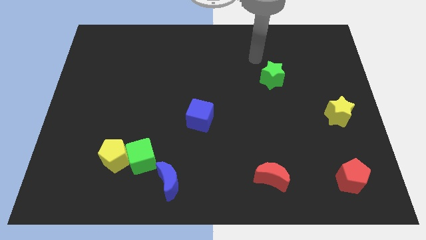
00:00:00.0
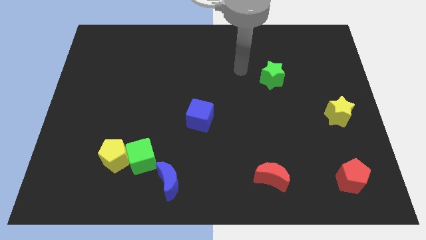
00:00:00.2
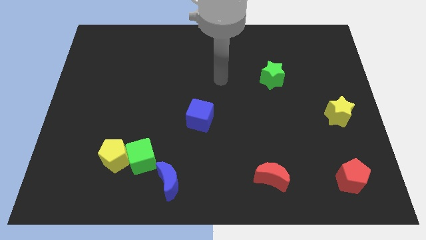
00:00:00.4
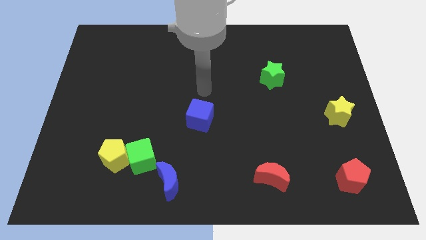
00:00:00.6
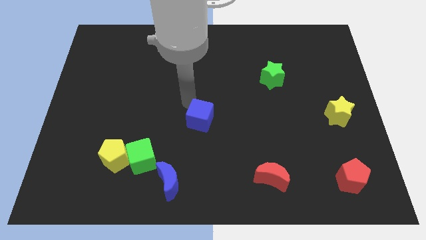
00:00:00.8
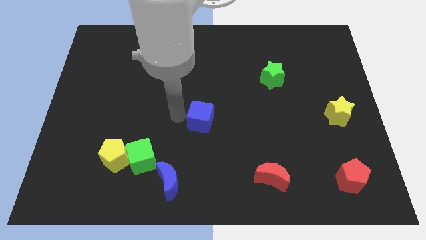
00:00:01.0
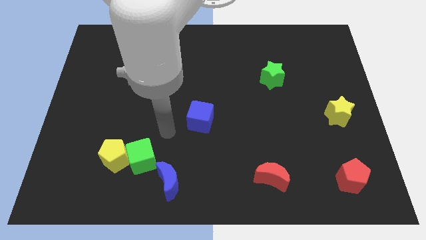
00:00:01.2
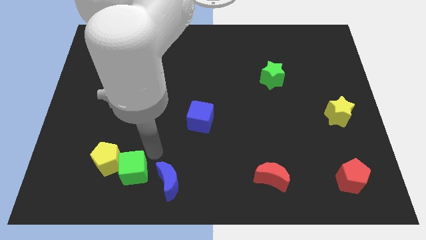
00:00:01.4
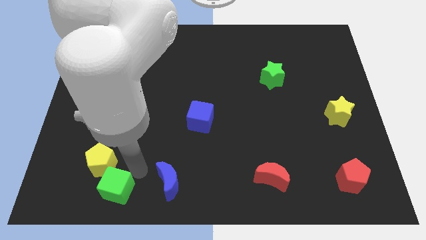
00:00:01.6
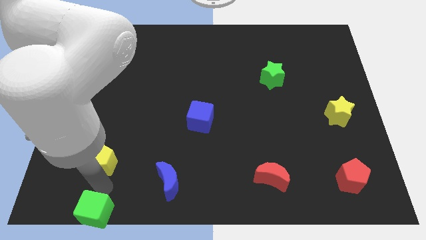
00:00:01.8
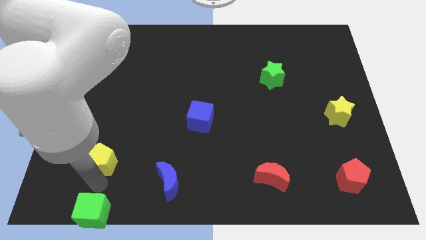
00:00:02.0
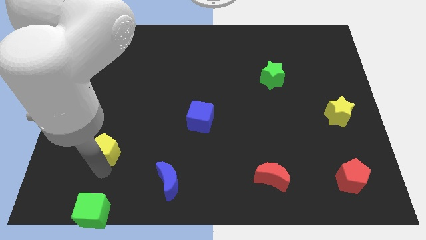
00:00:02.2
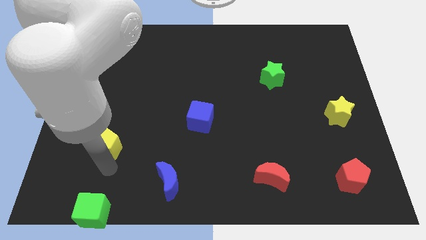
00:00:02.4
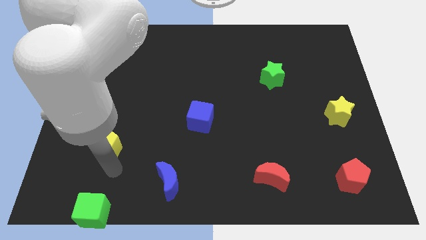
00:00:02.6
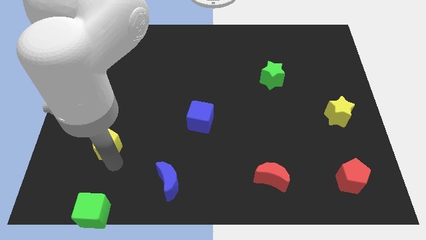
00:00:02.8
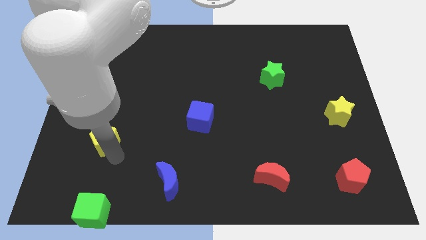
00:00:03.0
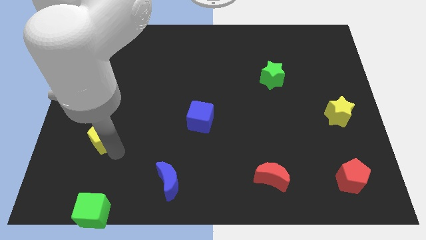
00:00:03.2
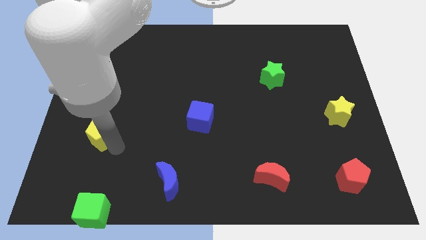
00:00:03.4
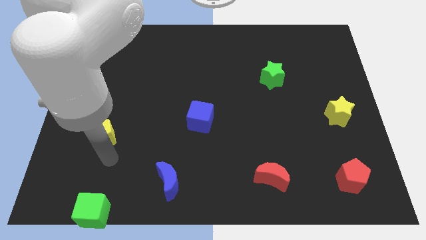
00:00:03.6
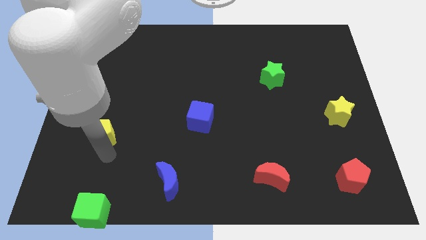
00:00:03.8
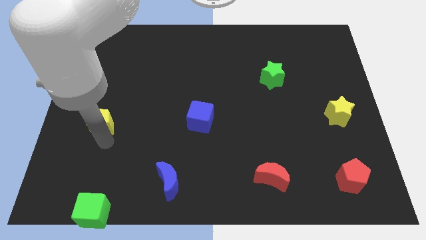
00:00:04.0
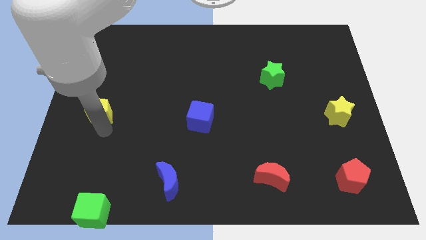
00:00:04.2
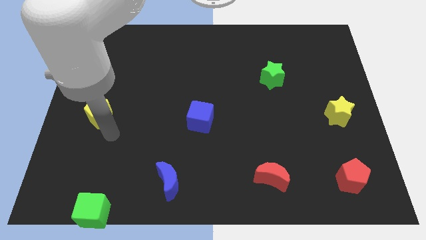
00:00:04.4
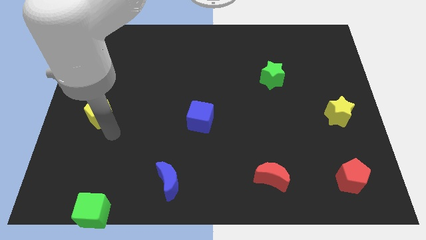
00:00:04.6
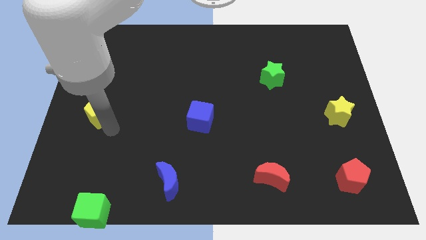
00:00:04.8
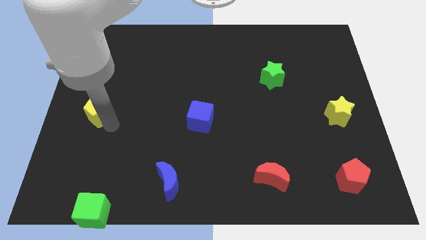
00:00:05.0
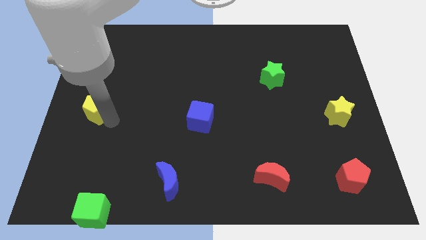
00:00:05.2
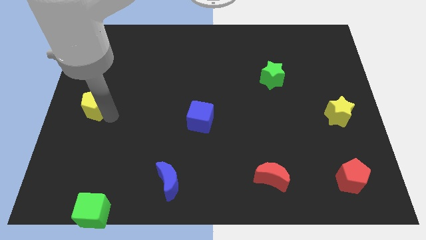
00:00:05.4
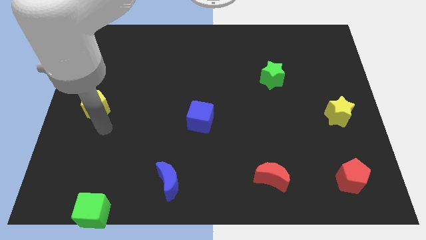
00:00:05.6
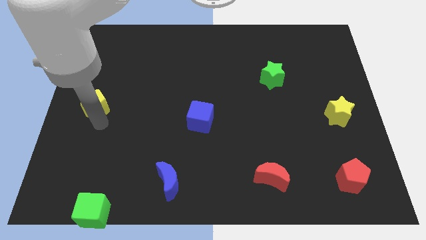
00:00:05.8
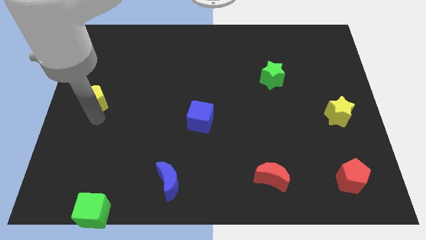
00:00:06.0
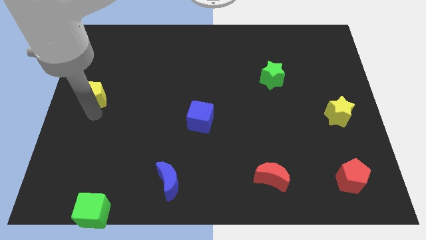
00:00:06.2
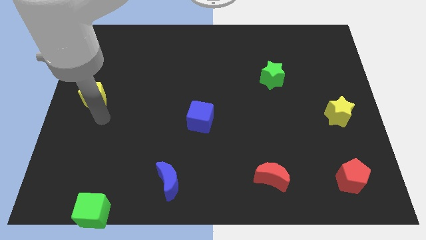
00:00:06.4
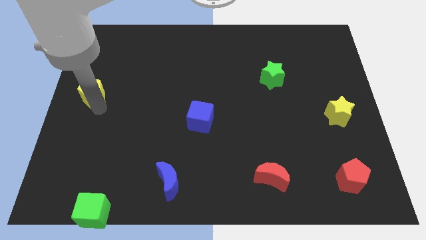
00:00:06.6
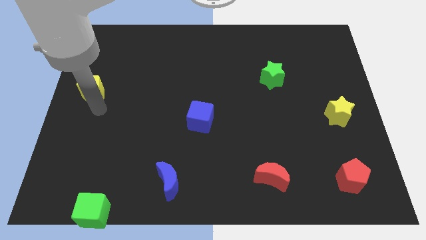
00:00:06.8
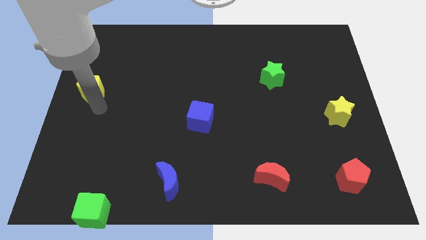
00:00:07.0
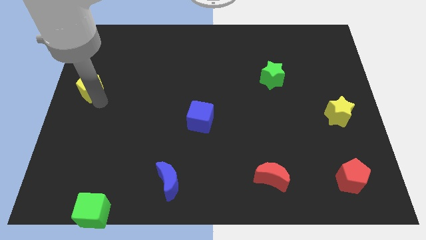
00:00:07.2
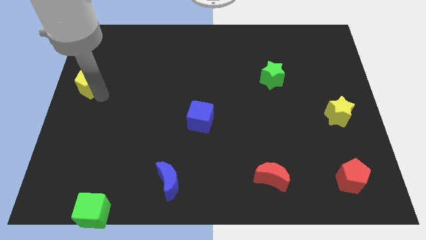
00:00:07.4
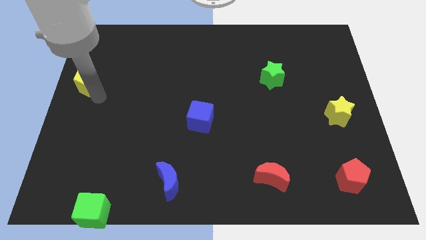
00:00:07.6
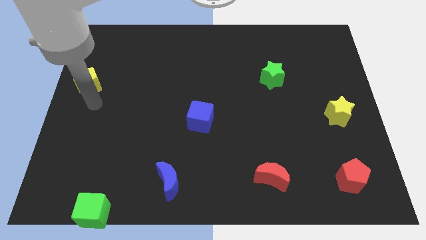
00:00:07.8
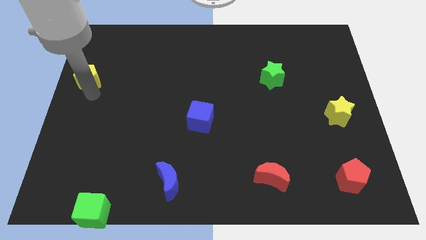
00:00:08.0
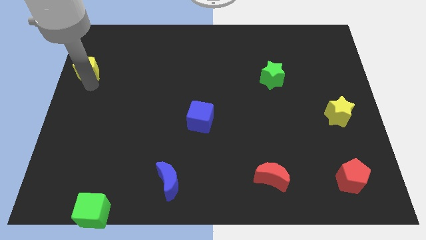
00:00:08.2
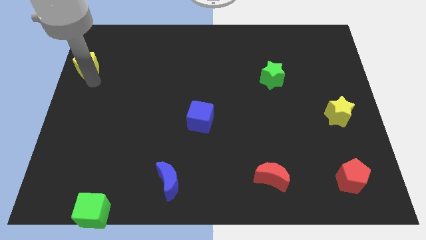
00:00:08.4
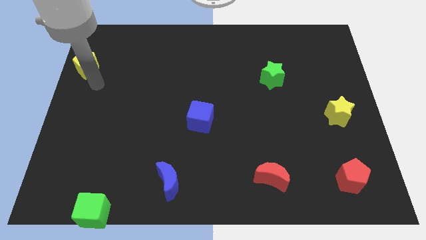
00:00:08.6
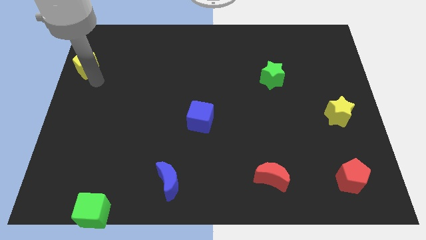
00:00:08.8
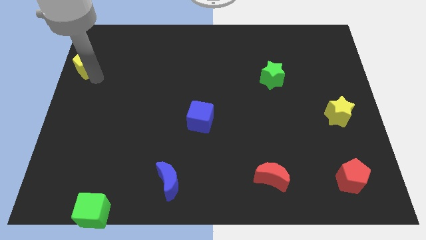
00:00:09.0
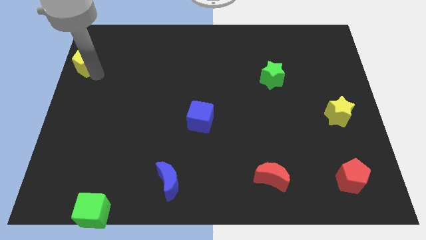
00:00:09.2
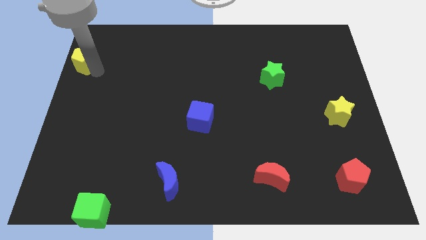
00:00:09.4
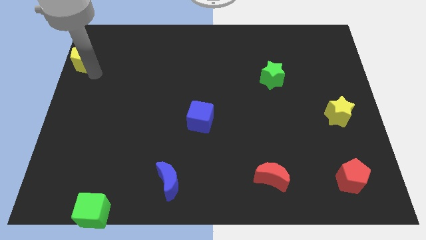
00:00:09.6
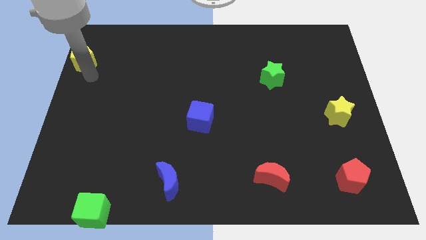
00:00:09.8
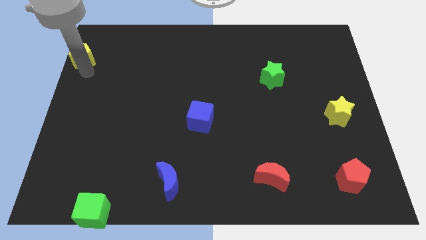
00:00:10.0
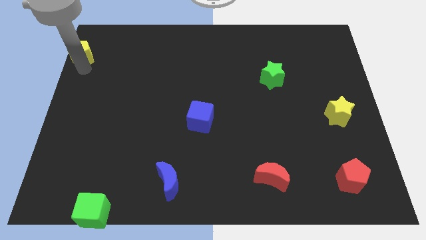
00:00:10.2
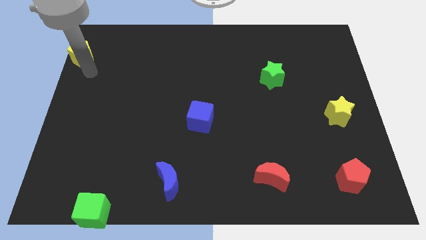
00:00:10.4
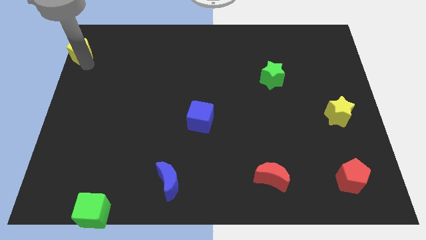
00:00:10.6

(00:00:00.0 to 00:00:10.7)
move the yellow pentagon to the top left

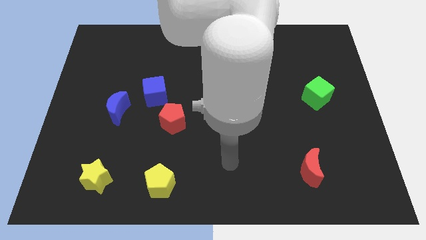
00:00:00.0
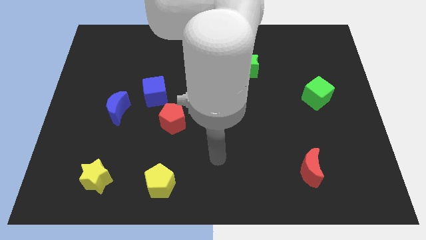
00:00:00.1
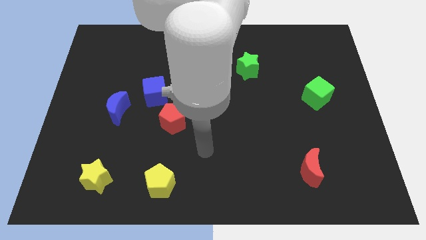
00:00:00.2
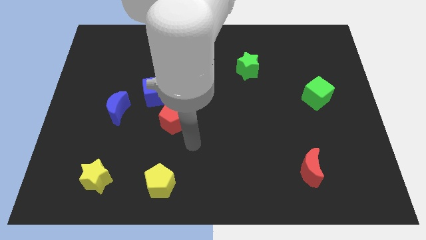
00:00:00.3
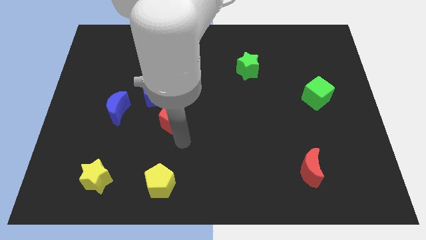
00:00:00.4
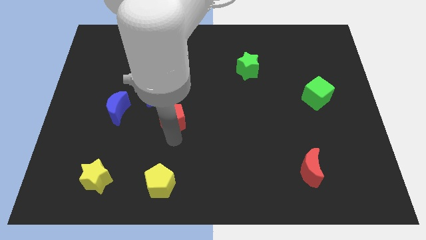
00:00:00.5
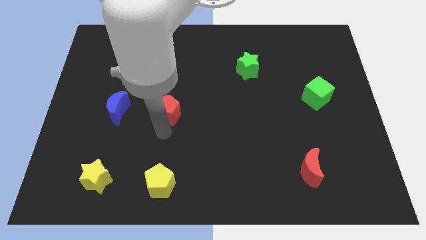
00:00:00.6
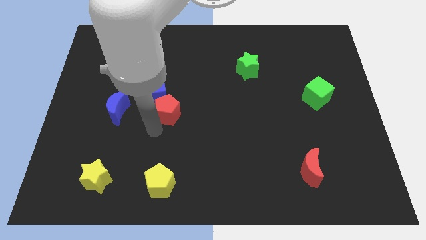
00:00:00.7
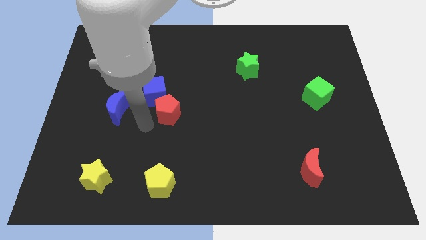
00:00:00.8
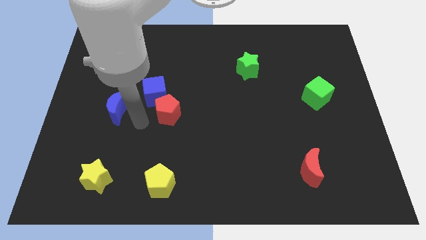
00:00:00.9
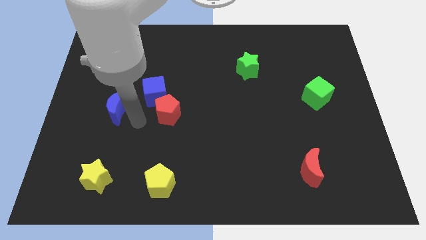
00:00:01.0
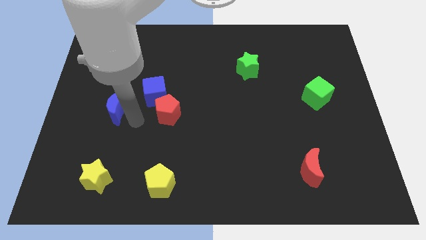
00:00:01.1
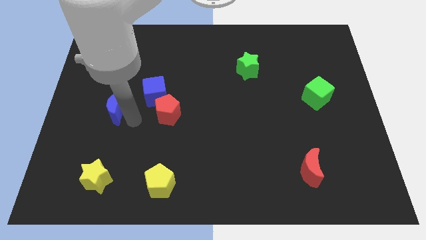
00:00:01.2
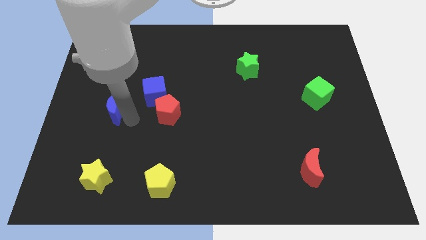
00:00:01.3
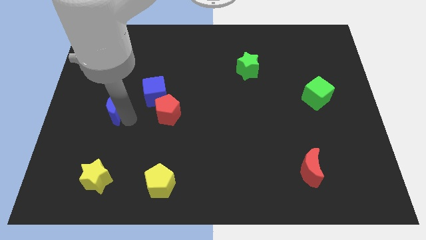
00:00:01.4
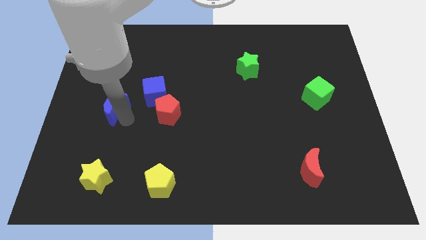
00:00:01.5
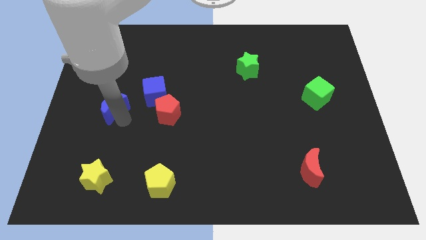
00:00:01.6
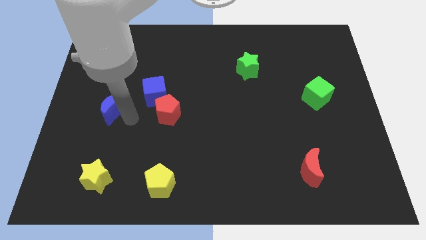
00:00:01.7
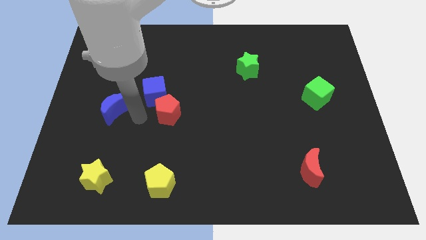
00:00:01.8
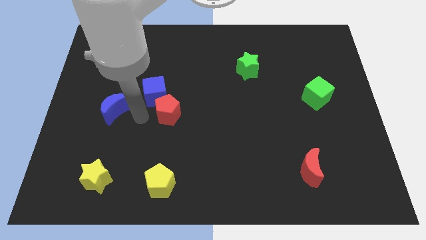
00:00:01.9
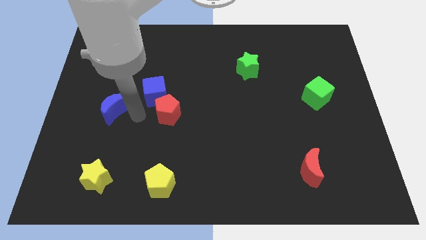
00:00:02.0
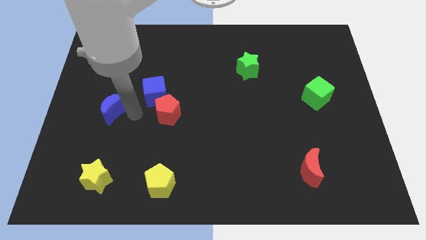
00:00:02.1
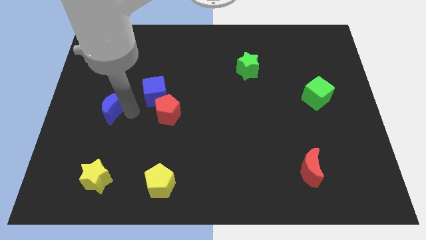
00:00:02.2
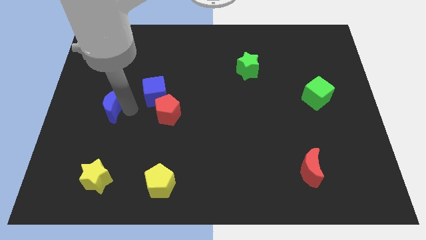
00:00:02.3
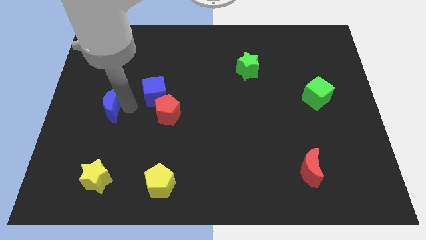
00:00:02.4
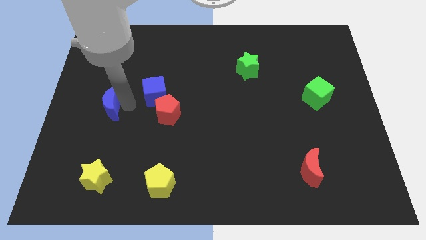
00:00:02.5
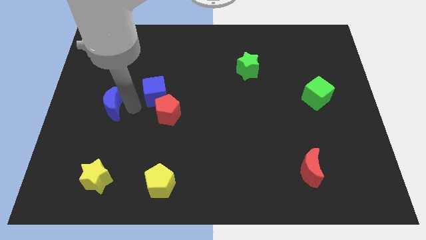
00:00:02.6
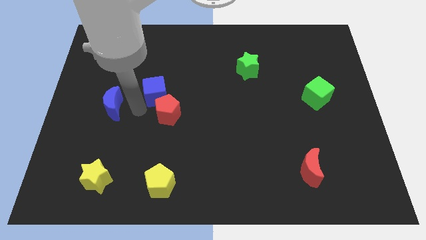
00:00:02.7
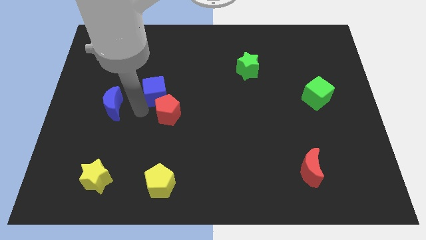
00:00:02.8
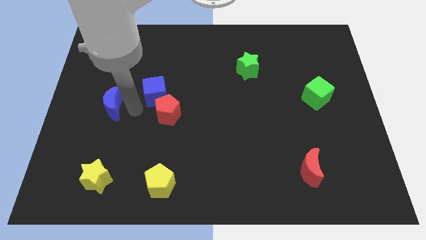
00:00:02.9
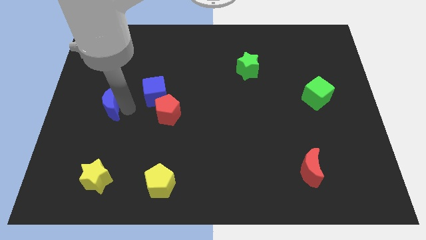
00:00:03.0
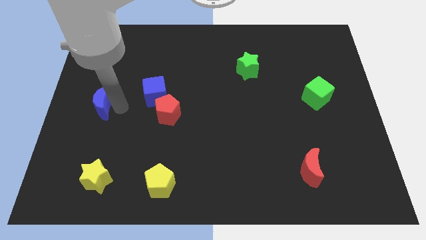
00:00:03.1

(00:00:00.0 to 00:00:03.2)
move the blue moon to the center left
